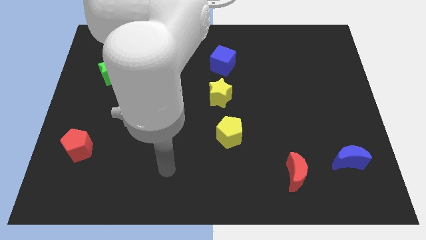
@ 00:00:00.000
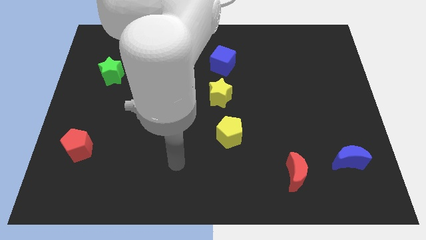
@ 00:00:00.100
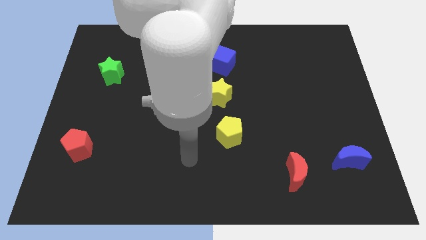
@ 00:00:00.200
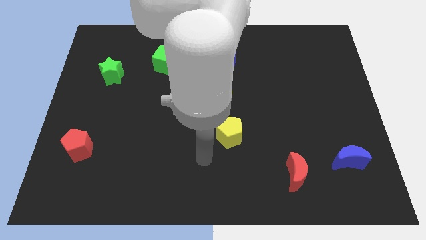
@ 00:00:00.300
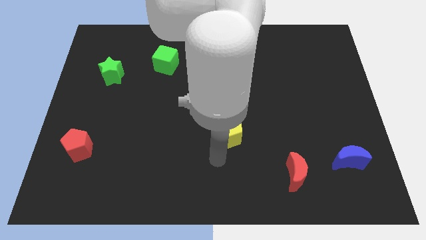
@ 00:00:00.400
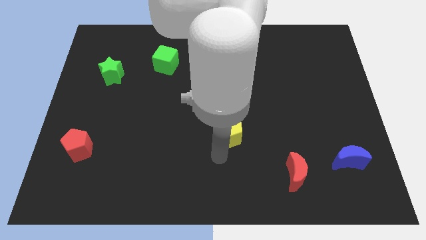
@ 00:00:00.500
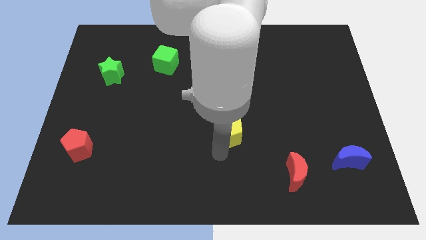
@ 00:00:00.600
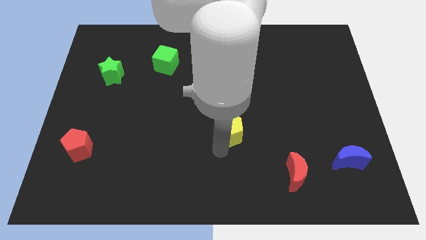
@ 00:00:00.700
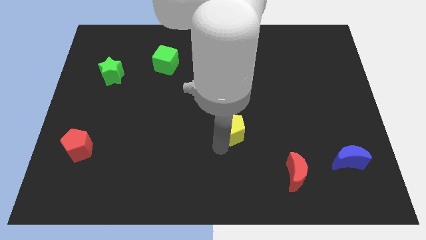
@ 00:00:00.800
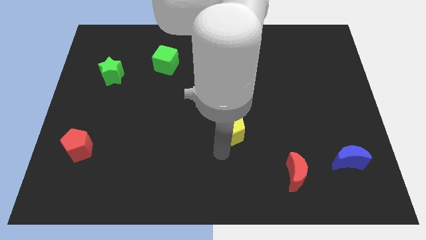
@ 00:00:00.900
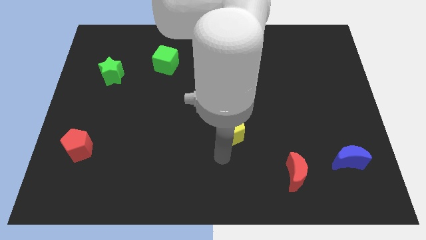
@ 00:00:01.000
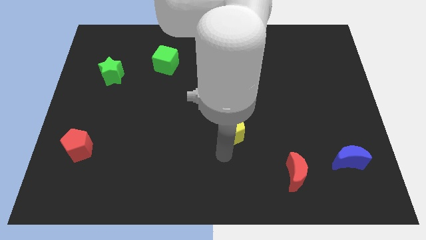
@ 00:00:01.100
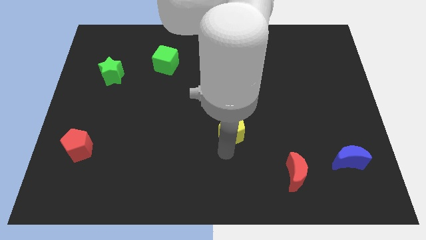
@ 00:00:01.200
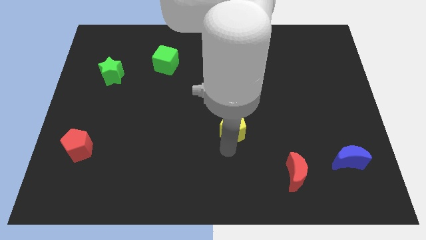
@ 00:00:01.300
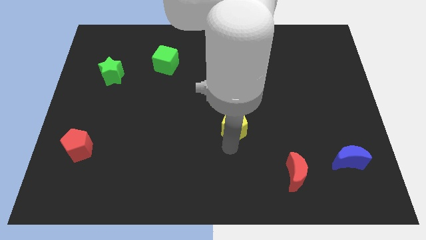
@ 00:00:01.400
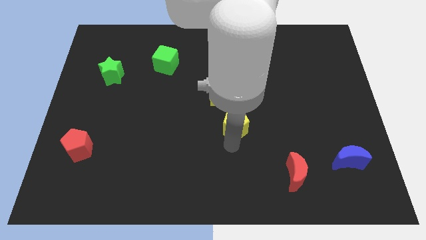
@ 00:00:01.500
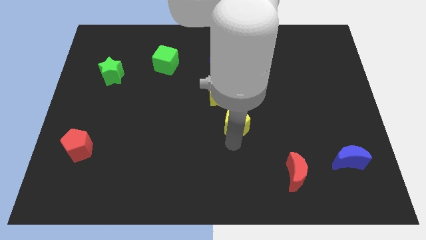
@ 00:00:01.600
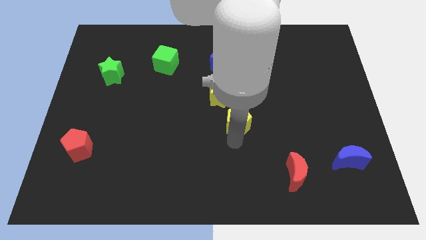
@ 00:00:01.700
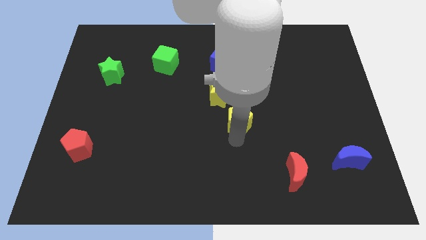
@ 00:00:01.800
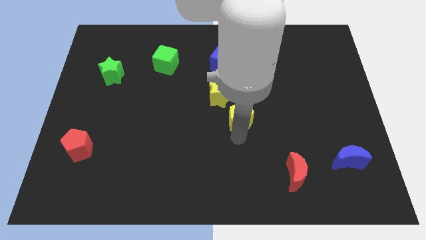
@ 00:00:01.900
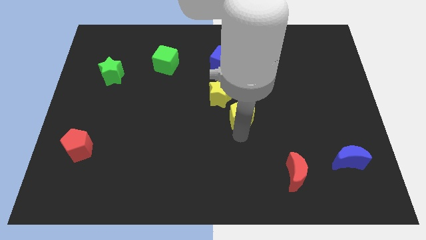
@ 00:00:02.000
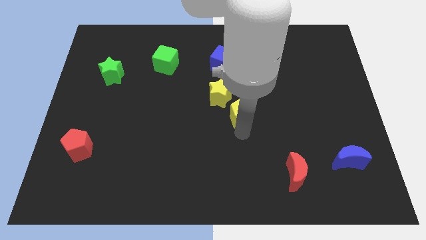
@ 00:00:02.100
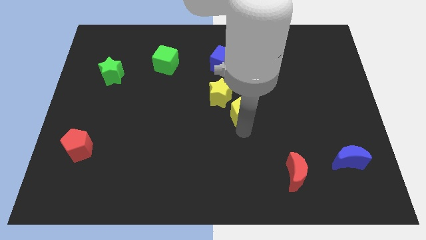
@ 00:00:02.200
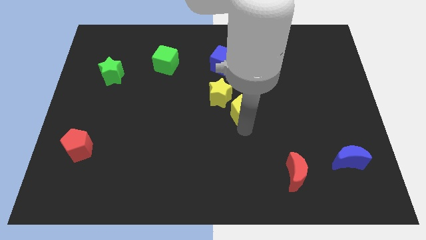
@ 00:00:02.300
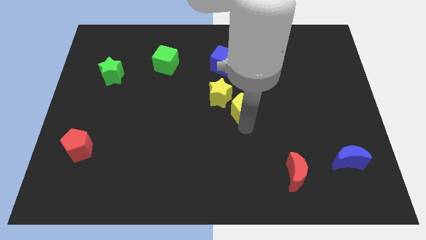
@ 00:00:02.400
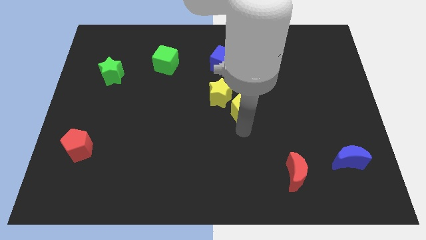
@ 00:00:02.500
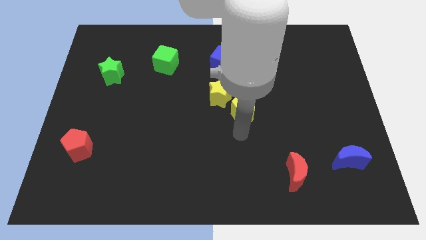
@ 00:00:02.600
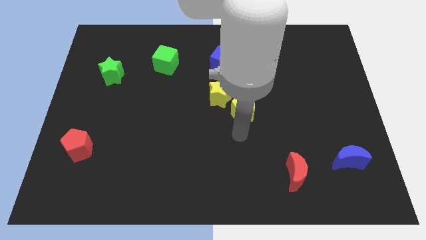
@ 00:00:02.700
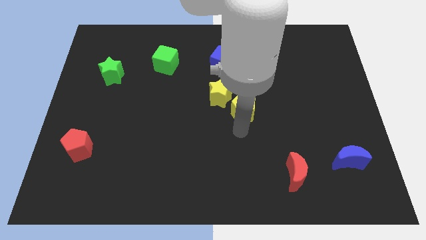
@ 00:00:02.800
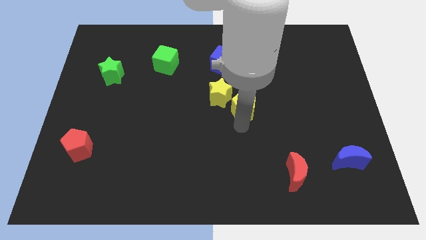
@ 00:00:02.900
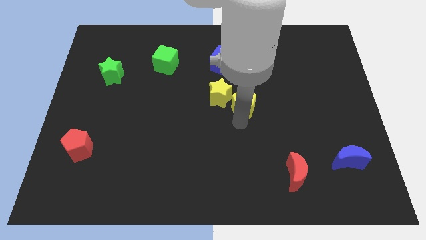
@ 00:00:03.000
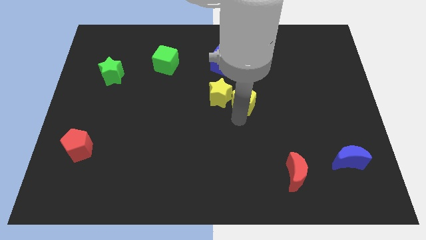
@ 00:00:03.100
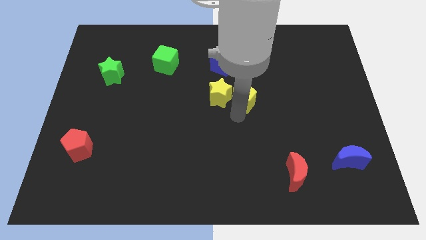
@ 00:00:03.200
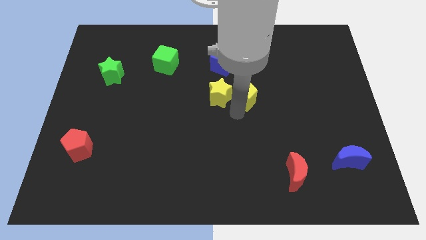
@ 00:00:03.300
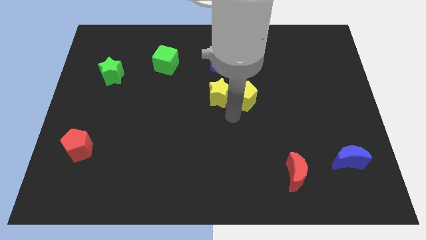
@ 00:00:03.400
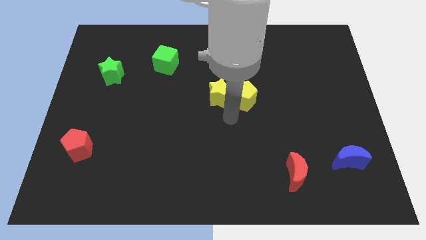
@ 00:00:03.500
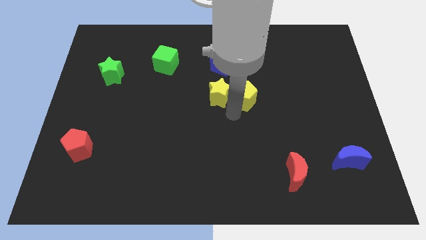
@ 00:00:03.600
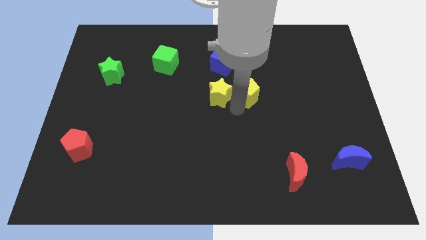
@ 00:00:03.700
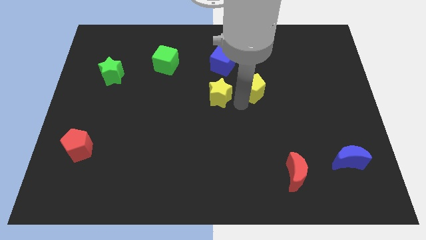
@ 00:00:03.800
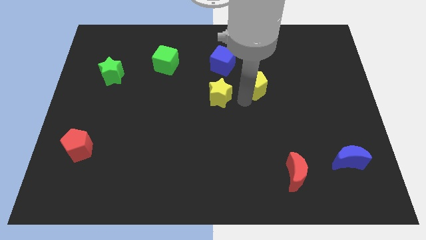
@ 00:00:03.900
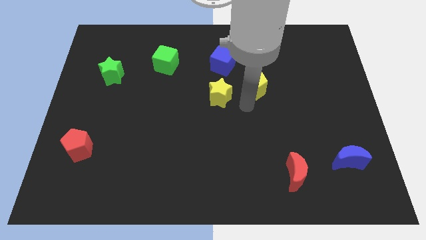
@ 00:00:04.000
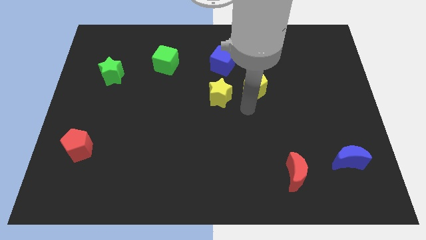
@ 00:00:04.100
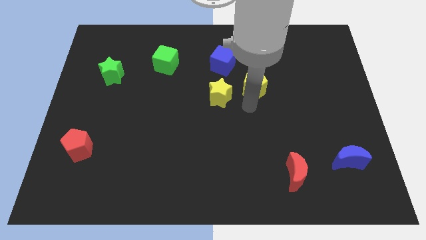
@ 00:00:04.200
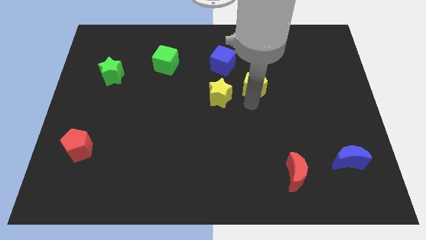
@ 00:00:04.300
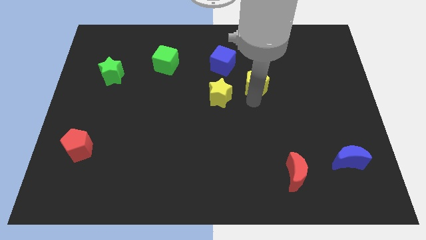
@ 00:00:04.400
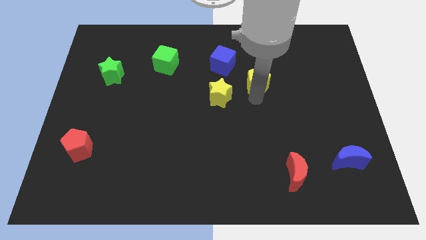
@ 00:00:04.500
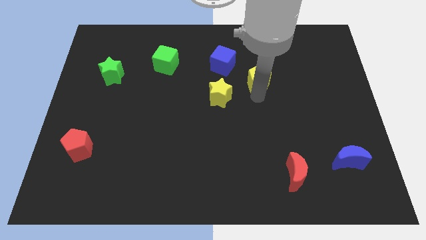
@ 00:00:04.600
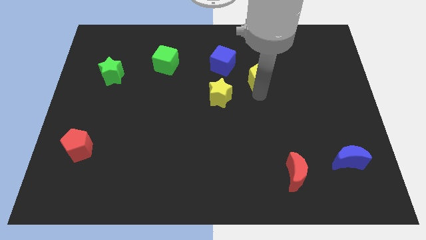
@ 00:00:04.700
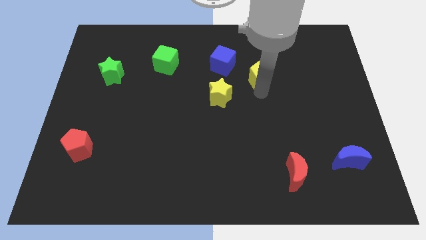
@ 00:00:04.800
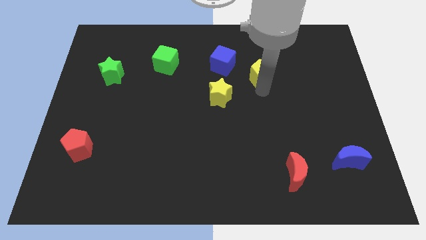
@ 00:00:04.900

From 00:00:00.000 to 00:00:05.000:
slide the yellow pentagon just right of the blue cube

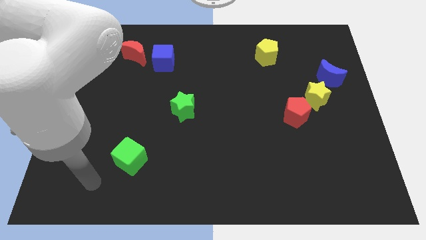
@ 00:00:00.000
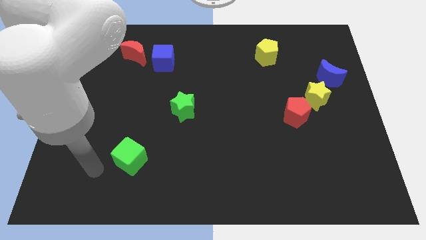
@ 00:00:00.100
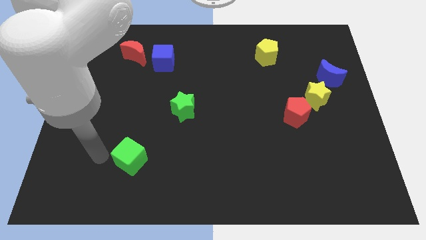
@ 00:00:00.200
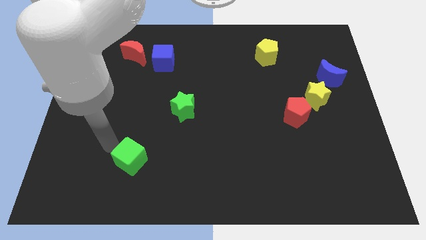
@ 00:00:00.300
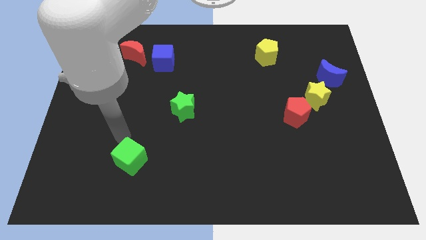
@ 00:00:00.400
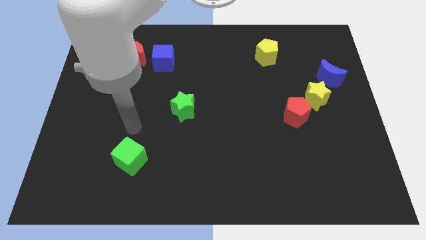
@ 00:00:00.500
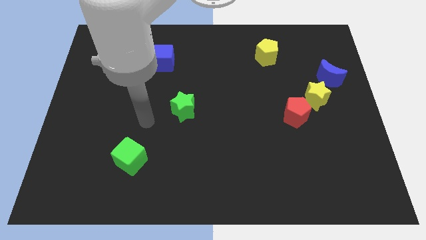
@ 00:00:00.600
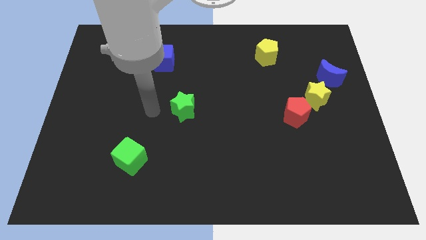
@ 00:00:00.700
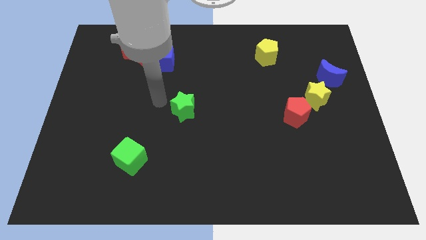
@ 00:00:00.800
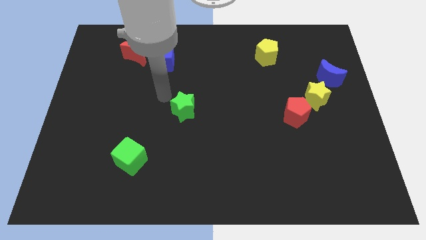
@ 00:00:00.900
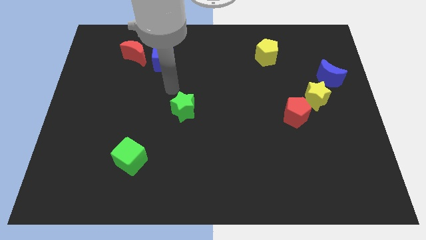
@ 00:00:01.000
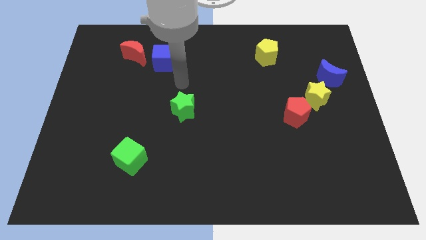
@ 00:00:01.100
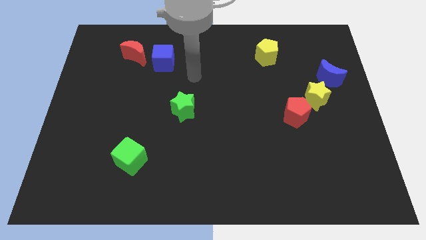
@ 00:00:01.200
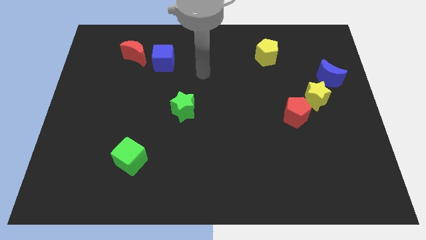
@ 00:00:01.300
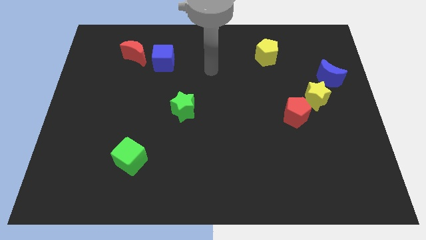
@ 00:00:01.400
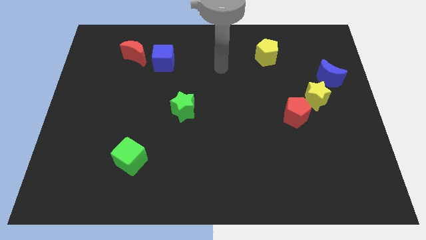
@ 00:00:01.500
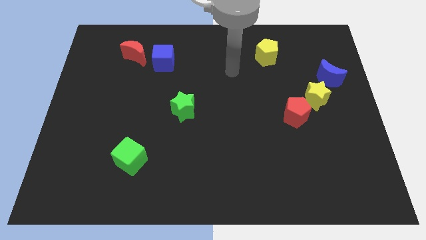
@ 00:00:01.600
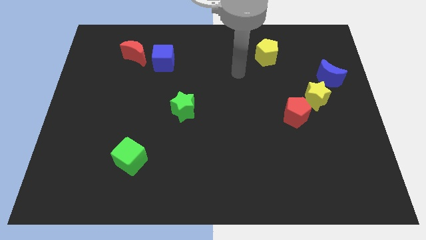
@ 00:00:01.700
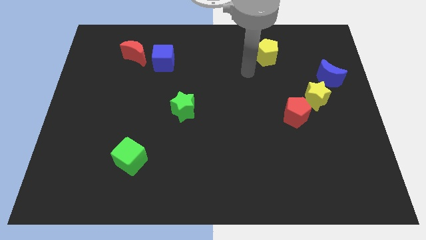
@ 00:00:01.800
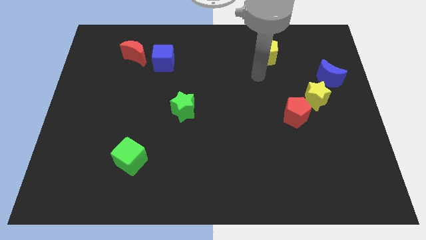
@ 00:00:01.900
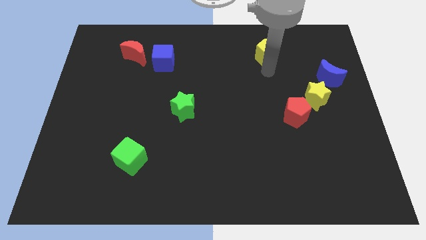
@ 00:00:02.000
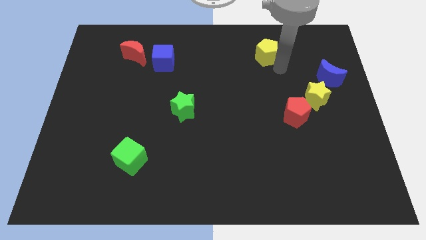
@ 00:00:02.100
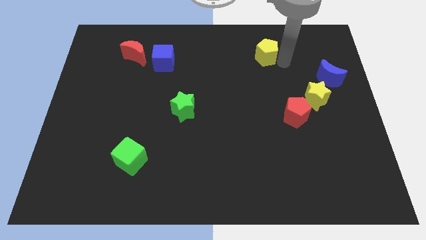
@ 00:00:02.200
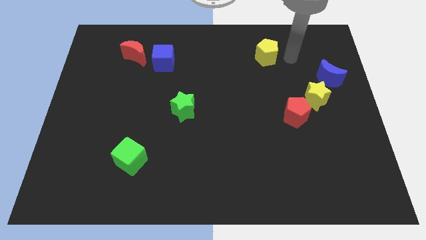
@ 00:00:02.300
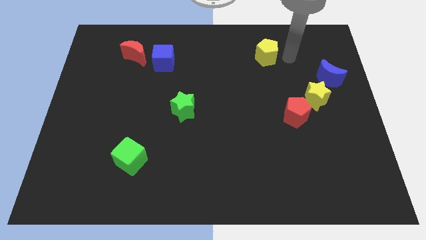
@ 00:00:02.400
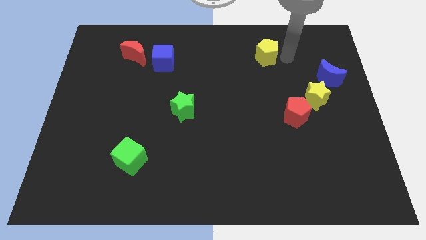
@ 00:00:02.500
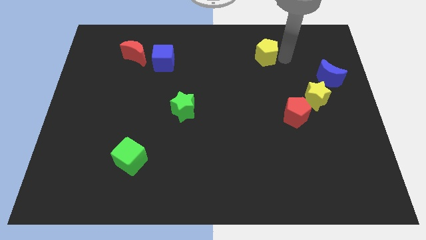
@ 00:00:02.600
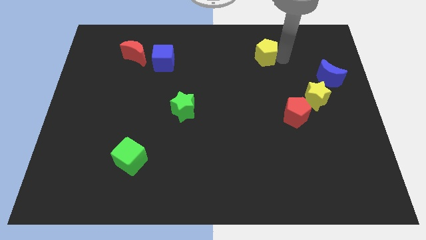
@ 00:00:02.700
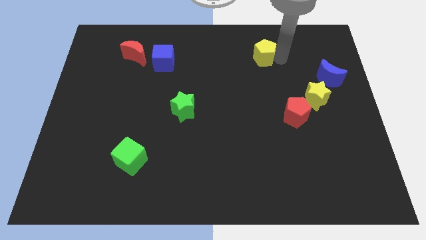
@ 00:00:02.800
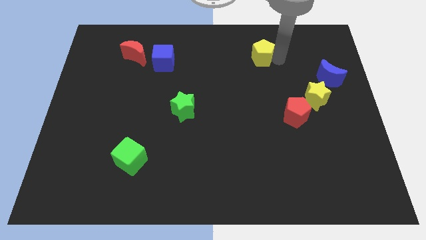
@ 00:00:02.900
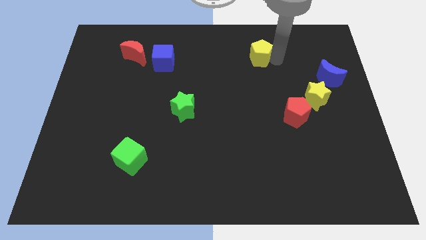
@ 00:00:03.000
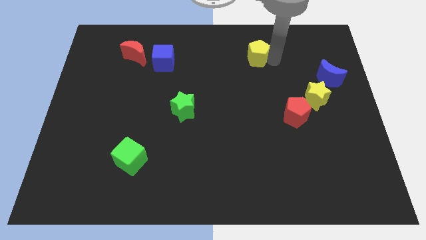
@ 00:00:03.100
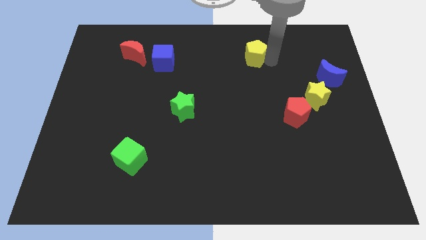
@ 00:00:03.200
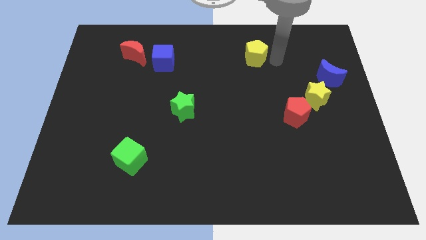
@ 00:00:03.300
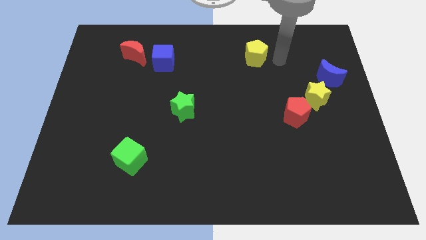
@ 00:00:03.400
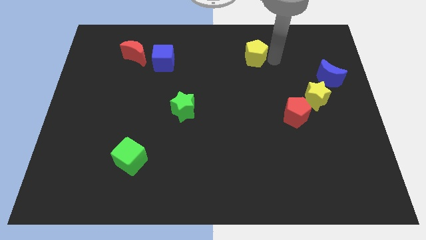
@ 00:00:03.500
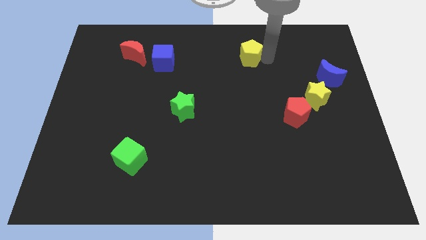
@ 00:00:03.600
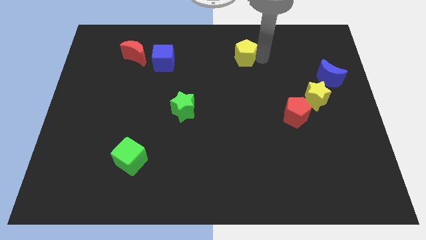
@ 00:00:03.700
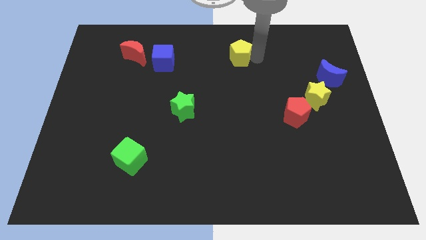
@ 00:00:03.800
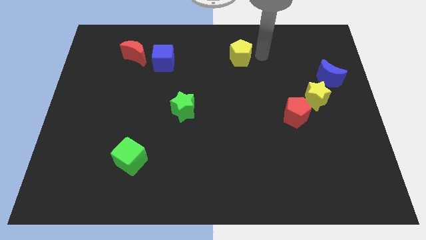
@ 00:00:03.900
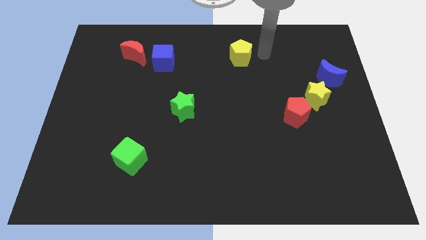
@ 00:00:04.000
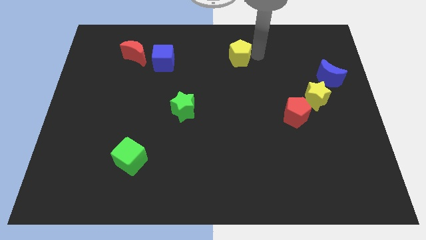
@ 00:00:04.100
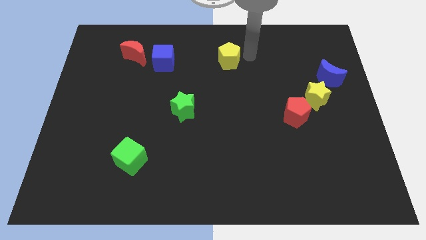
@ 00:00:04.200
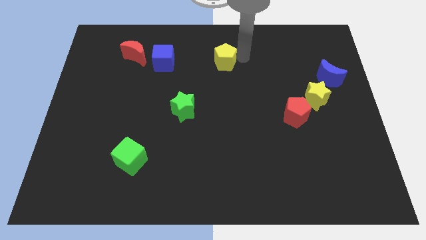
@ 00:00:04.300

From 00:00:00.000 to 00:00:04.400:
put the yellow pentagon to the right of the blue cube
